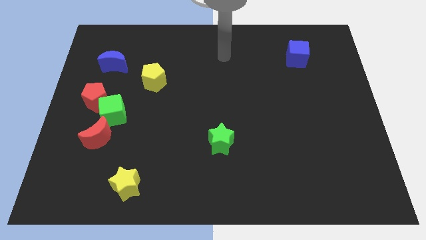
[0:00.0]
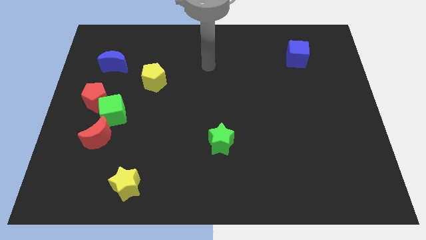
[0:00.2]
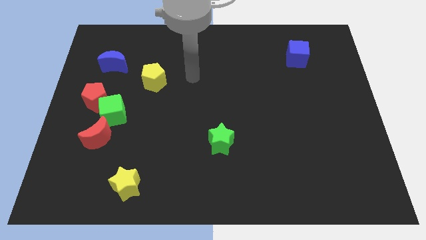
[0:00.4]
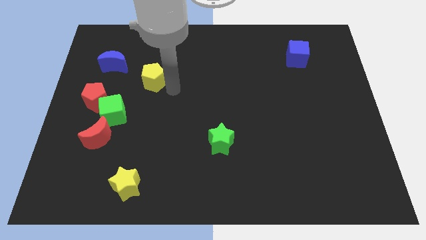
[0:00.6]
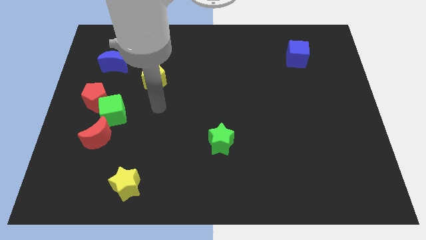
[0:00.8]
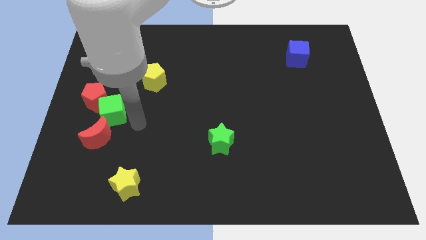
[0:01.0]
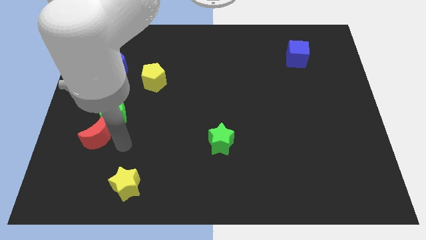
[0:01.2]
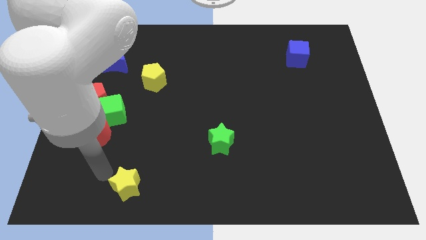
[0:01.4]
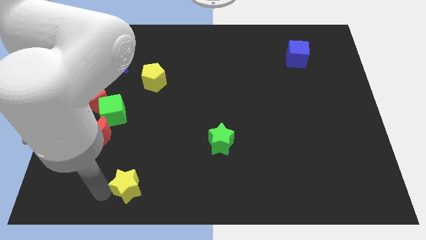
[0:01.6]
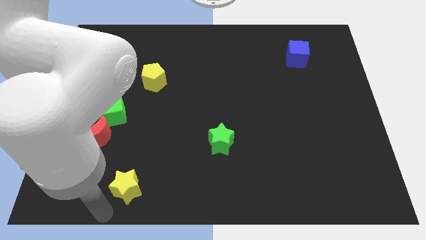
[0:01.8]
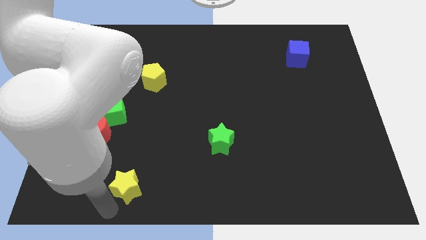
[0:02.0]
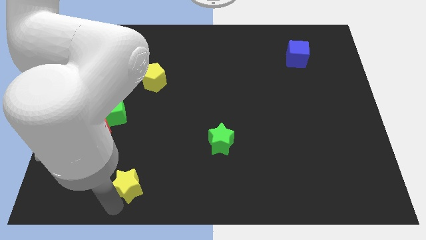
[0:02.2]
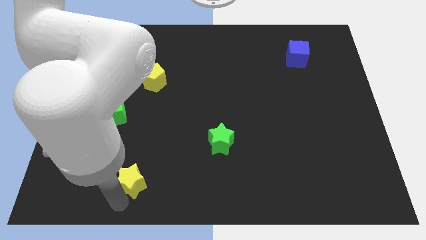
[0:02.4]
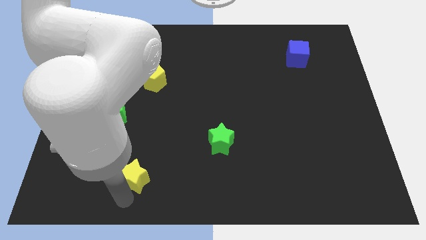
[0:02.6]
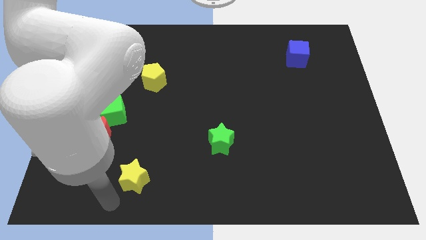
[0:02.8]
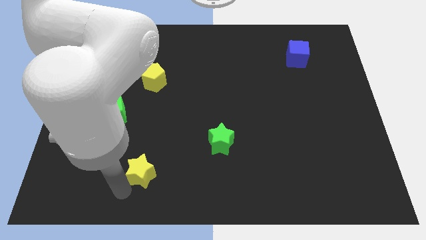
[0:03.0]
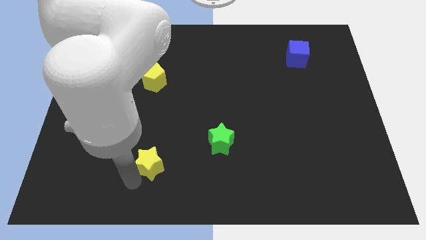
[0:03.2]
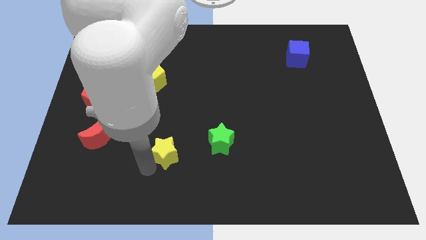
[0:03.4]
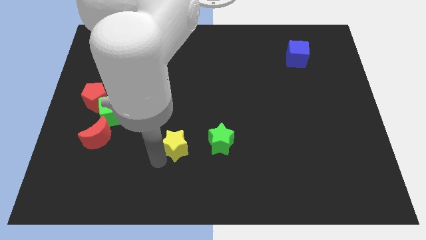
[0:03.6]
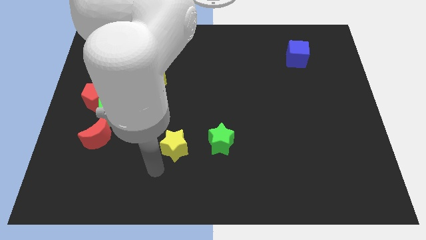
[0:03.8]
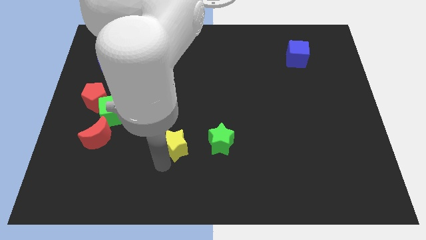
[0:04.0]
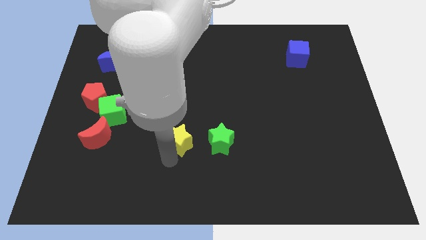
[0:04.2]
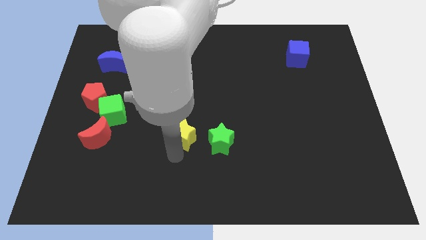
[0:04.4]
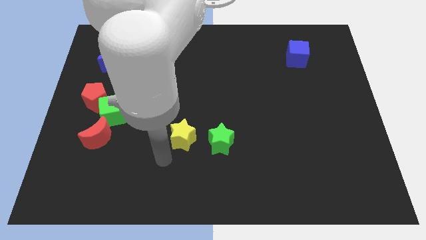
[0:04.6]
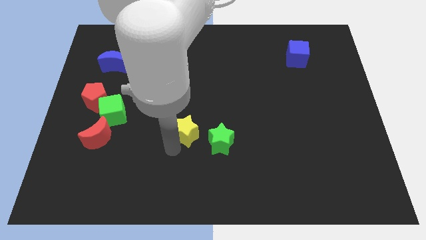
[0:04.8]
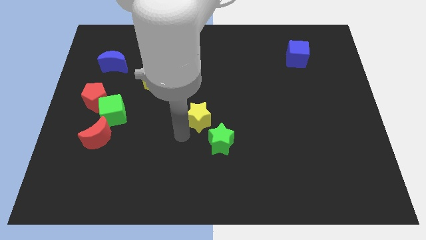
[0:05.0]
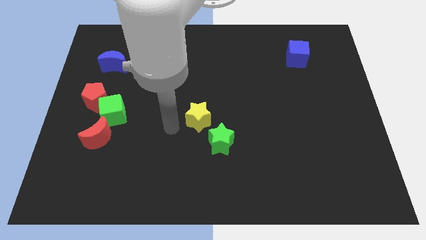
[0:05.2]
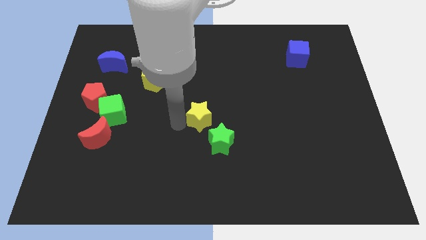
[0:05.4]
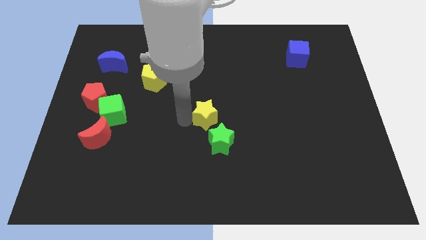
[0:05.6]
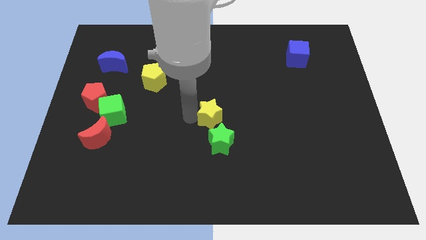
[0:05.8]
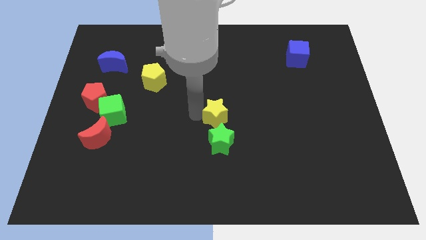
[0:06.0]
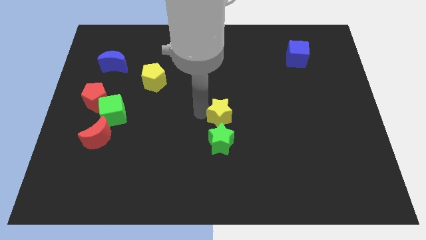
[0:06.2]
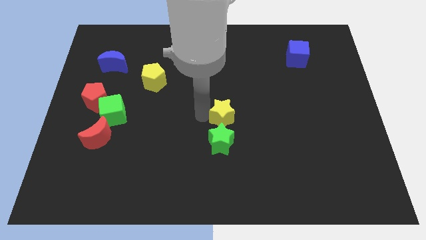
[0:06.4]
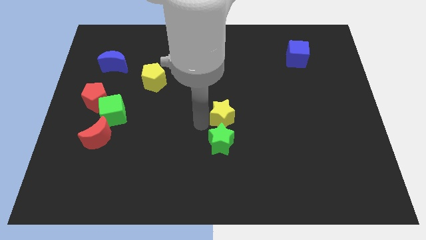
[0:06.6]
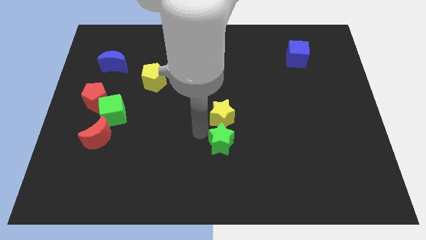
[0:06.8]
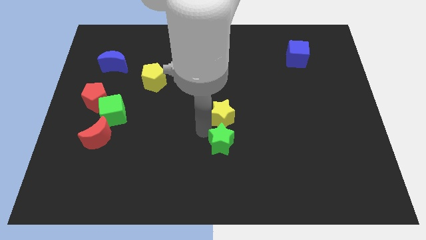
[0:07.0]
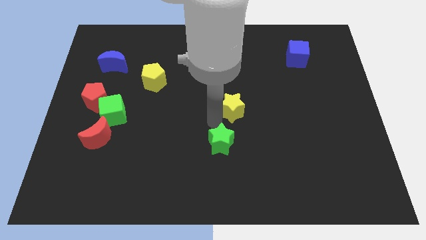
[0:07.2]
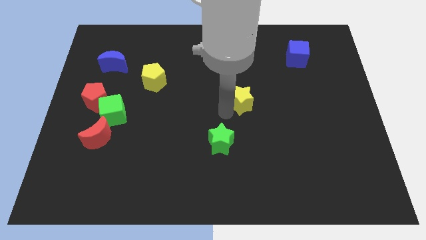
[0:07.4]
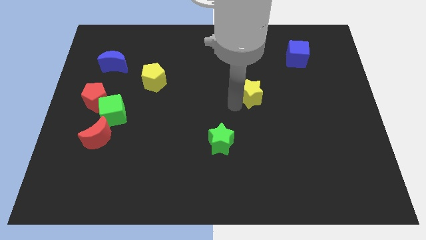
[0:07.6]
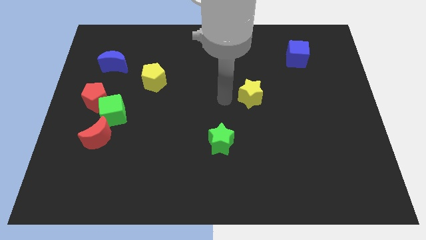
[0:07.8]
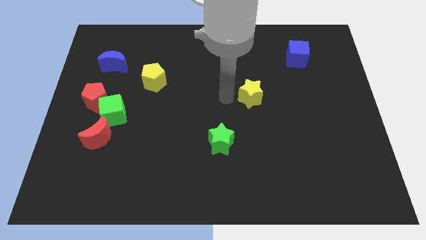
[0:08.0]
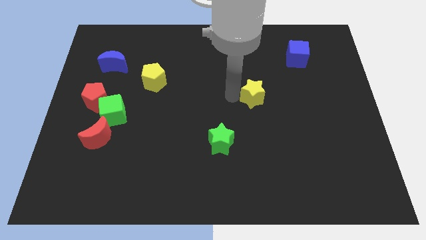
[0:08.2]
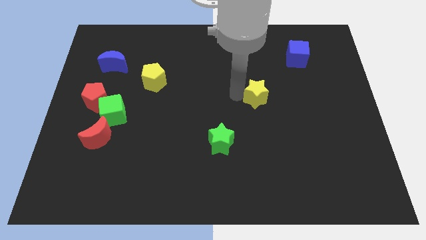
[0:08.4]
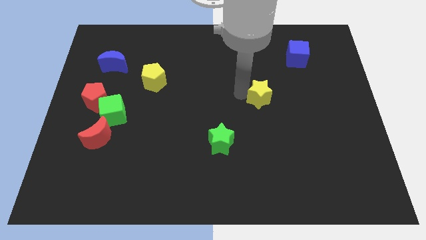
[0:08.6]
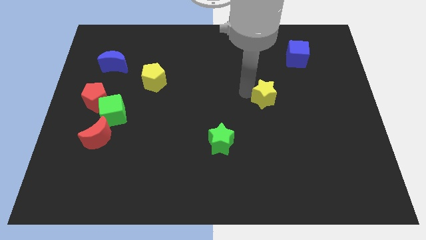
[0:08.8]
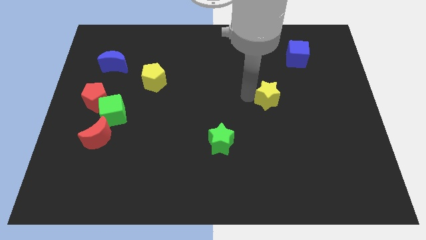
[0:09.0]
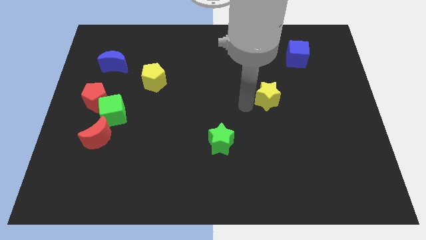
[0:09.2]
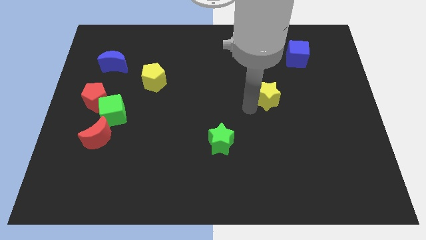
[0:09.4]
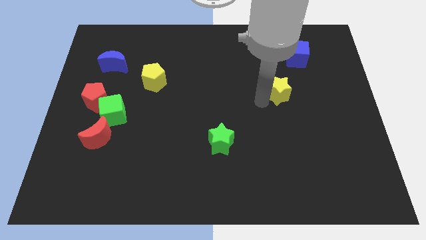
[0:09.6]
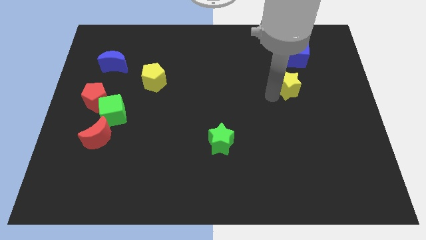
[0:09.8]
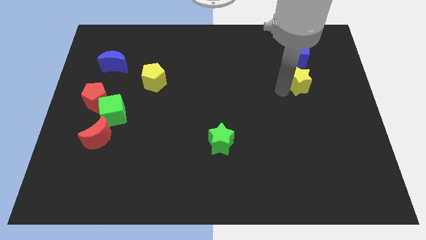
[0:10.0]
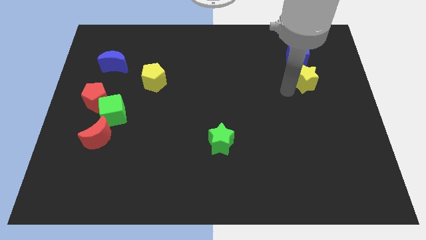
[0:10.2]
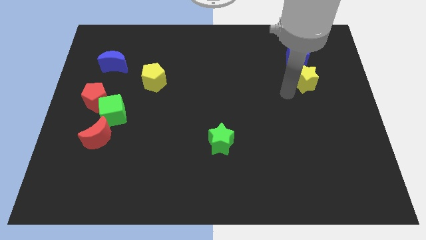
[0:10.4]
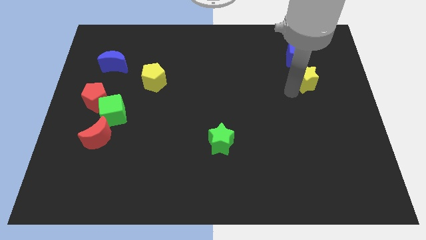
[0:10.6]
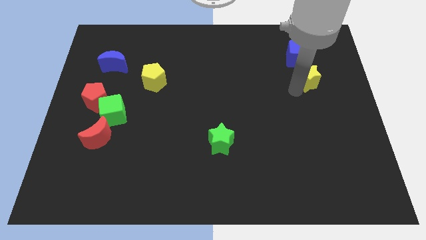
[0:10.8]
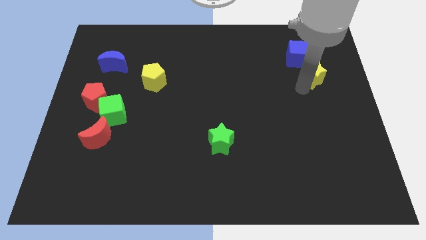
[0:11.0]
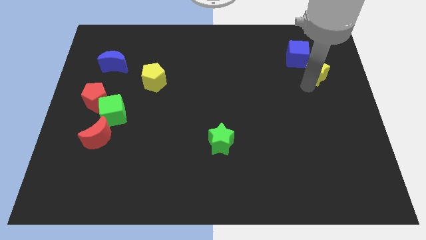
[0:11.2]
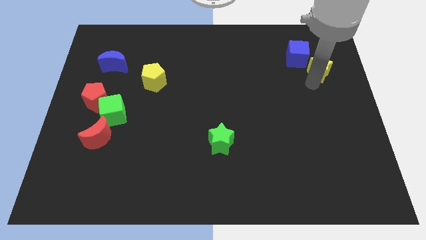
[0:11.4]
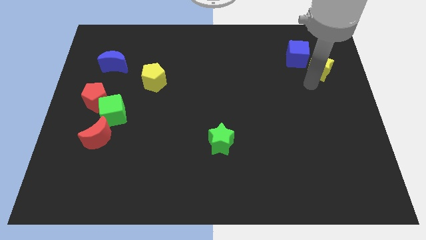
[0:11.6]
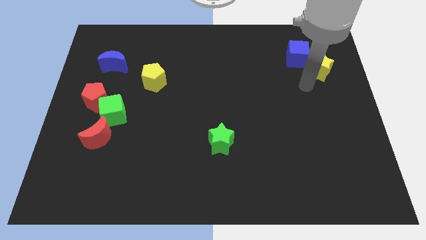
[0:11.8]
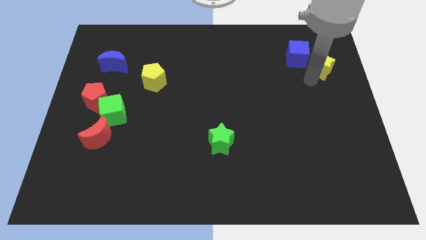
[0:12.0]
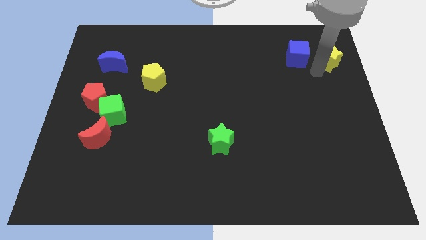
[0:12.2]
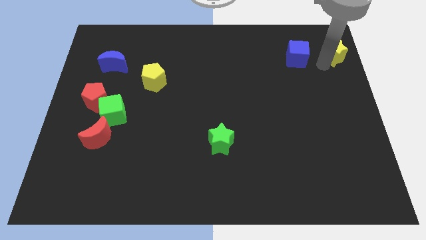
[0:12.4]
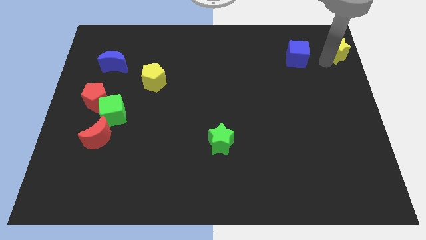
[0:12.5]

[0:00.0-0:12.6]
move the yellow star to the upper right corner

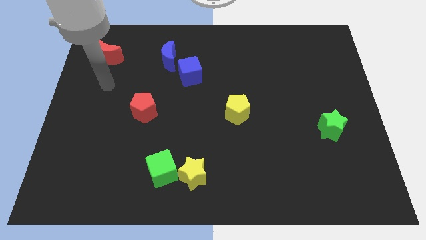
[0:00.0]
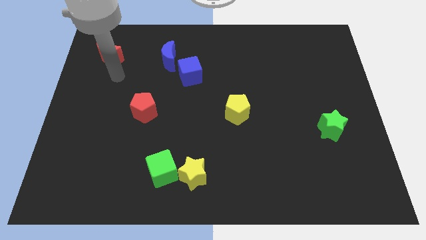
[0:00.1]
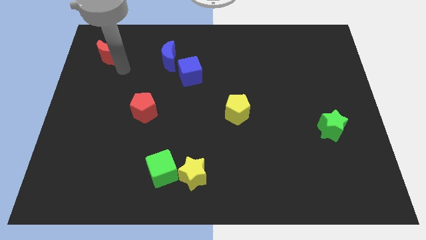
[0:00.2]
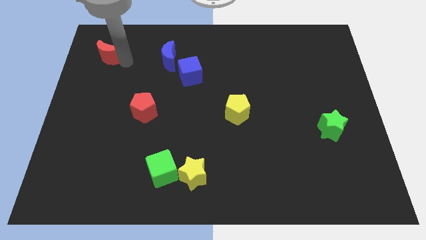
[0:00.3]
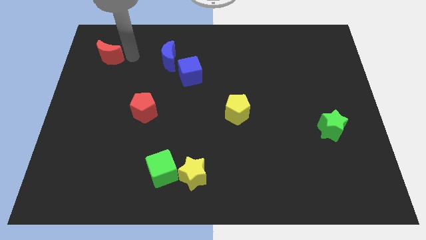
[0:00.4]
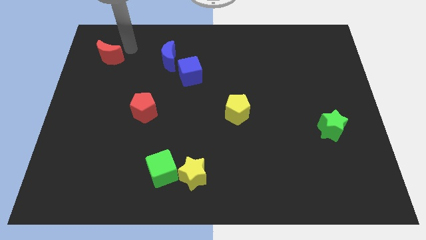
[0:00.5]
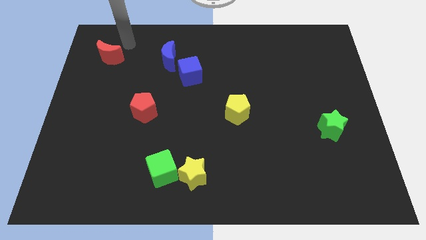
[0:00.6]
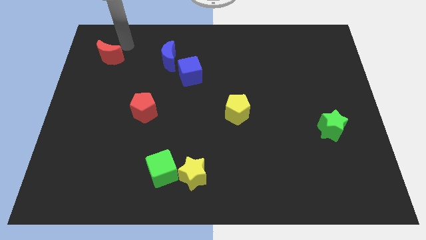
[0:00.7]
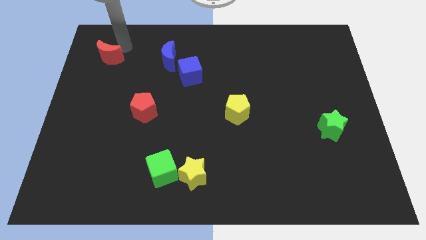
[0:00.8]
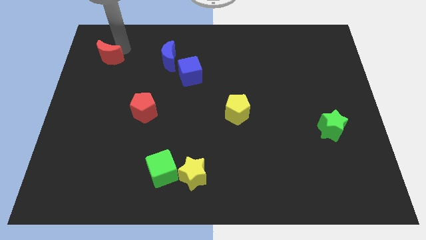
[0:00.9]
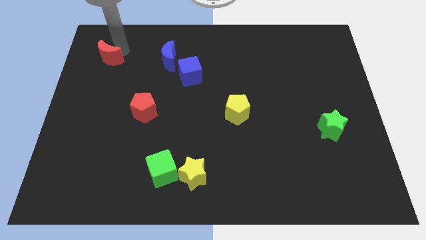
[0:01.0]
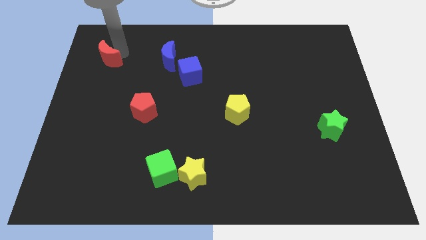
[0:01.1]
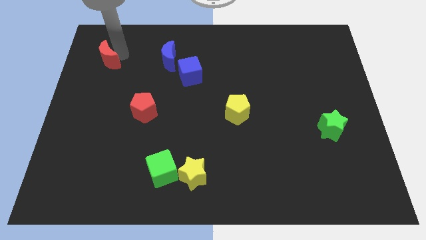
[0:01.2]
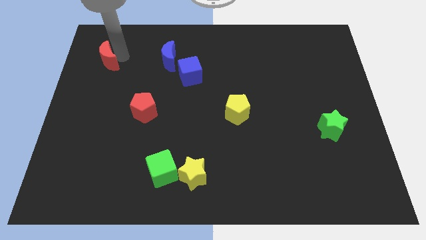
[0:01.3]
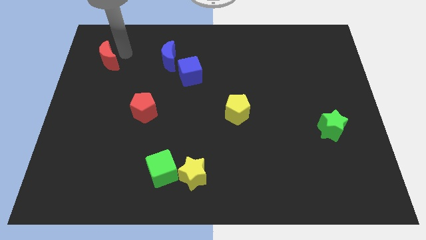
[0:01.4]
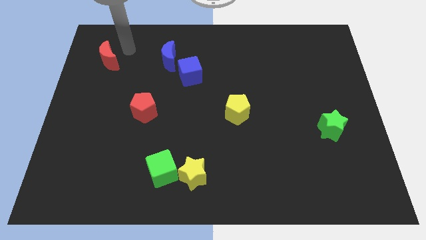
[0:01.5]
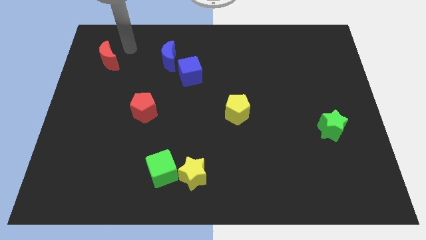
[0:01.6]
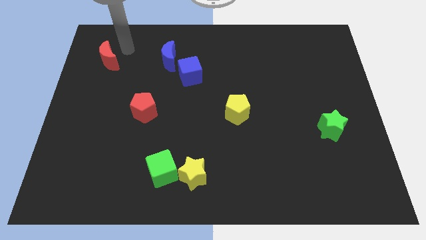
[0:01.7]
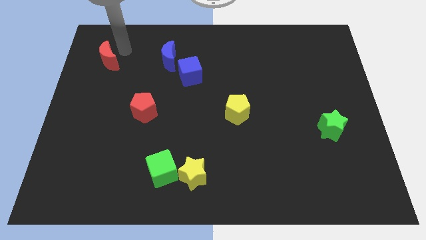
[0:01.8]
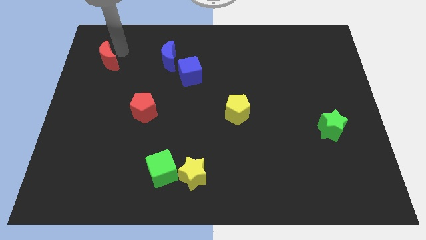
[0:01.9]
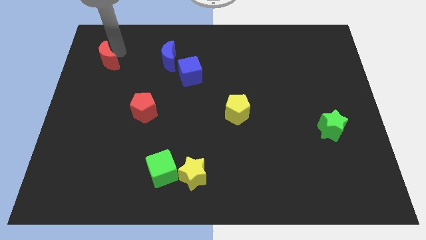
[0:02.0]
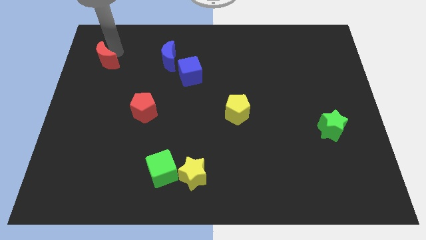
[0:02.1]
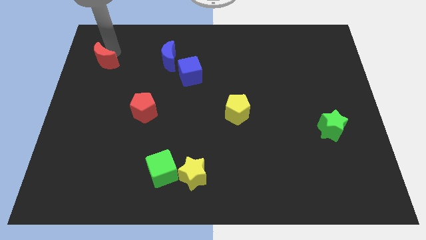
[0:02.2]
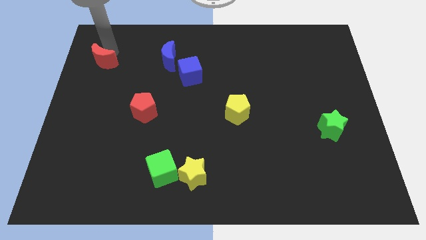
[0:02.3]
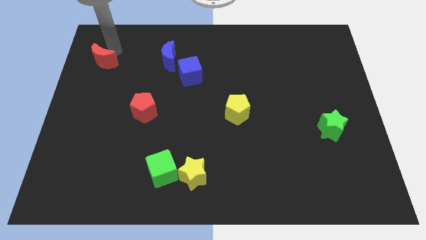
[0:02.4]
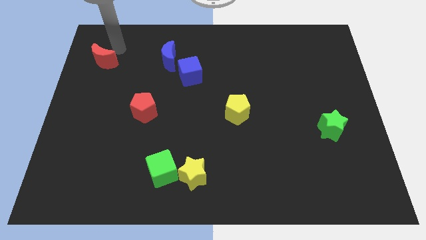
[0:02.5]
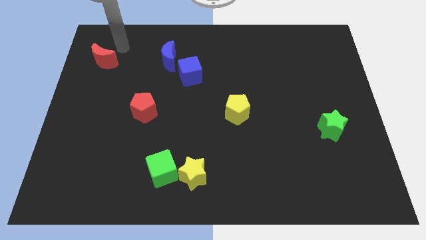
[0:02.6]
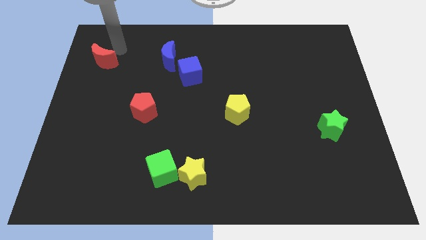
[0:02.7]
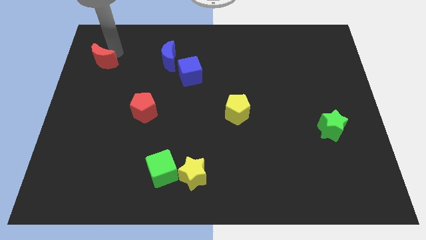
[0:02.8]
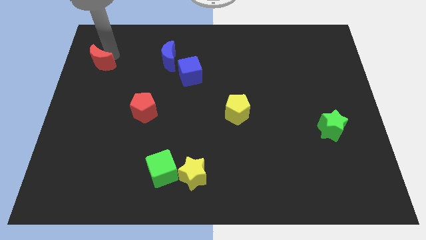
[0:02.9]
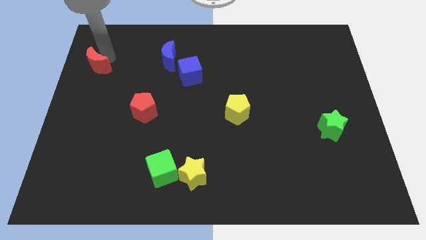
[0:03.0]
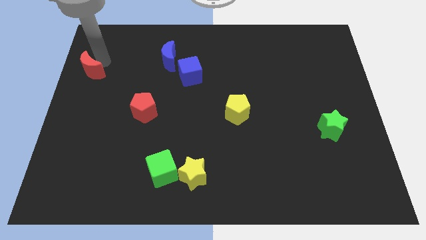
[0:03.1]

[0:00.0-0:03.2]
slide the red moon to the left side
